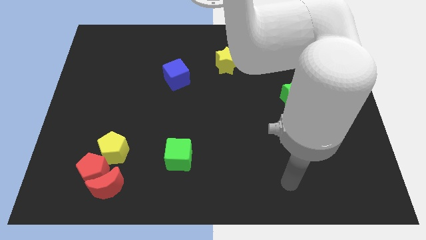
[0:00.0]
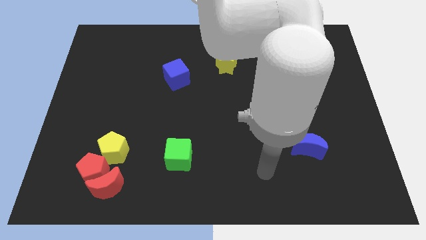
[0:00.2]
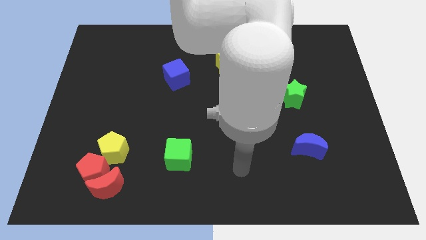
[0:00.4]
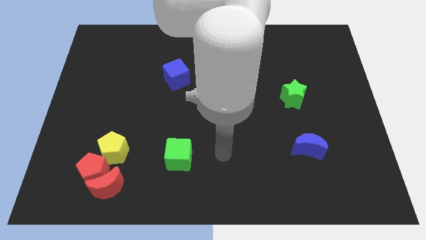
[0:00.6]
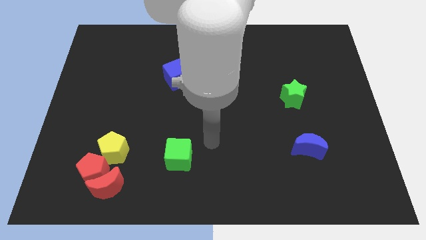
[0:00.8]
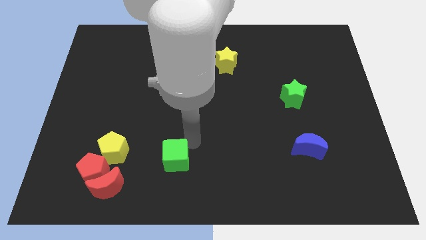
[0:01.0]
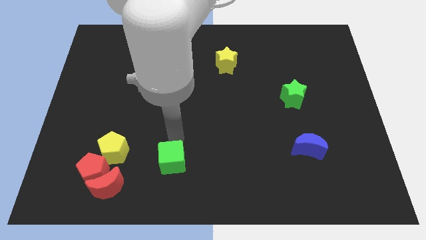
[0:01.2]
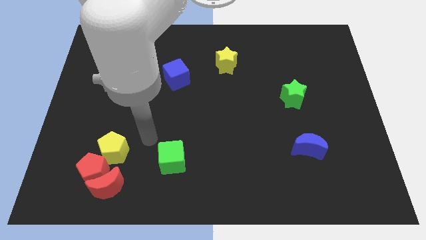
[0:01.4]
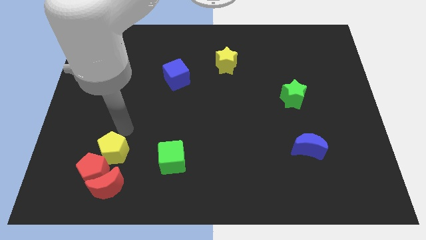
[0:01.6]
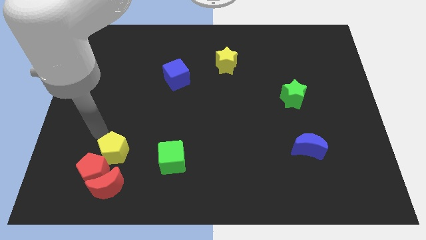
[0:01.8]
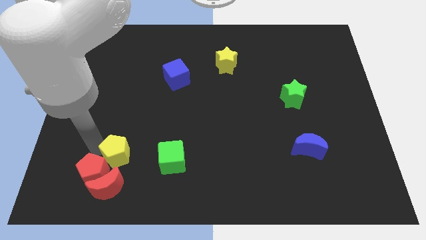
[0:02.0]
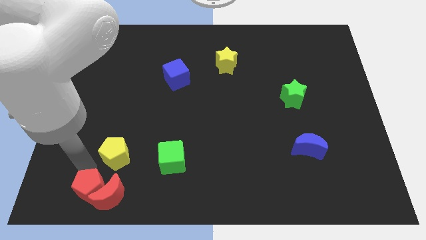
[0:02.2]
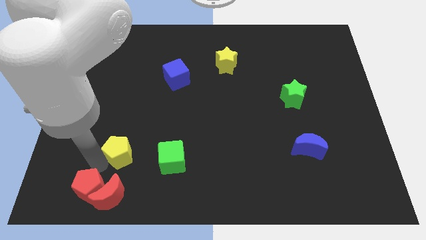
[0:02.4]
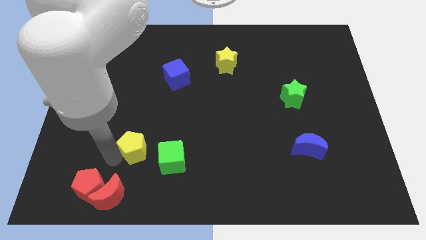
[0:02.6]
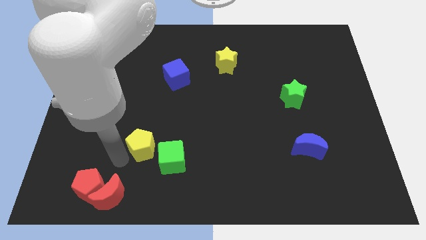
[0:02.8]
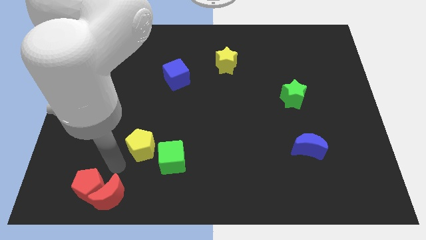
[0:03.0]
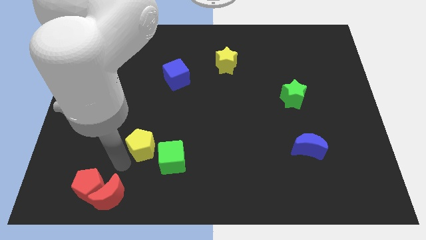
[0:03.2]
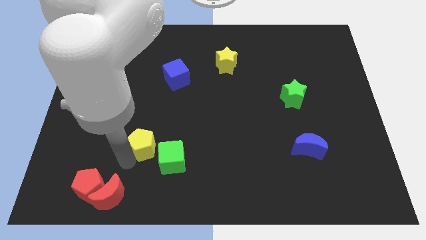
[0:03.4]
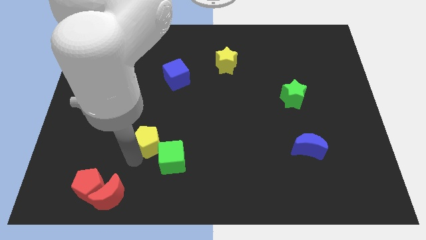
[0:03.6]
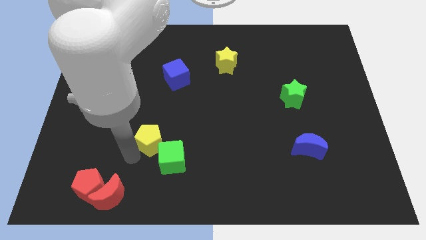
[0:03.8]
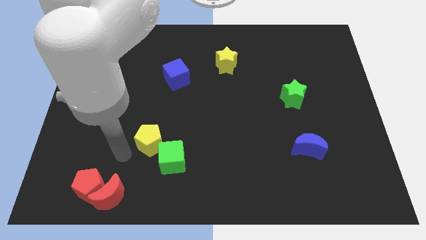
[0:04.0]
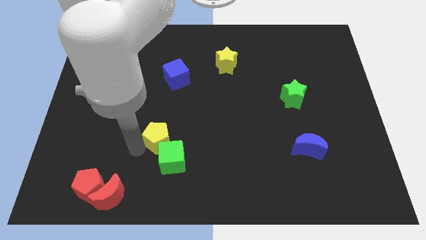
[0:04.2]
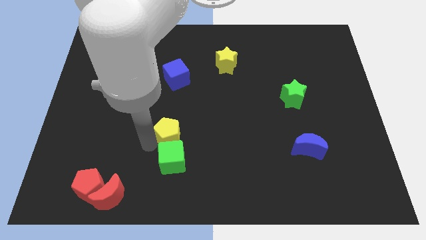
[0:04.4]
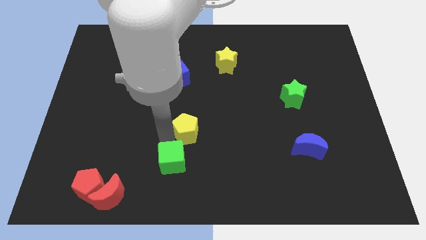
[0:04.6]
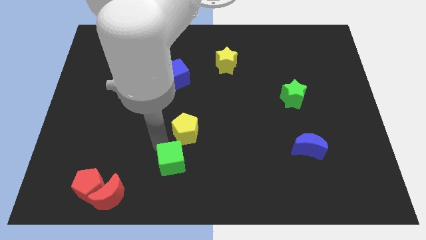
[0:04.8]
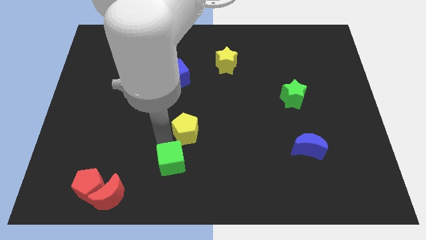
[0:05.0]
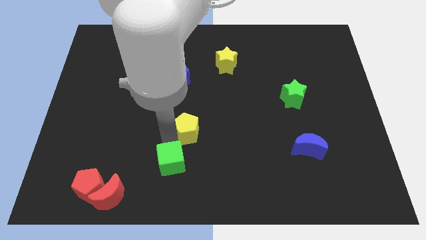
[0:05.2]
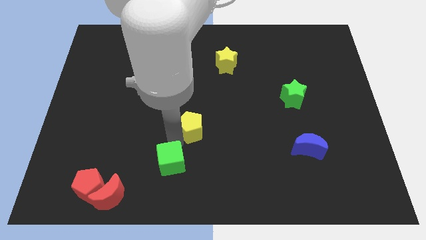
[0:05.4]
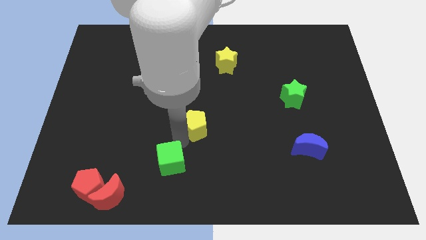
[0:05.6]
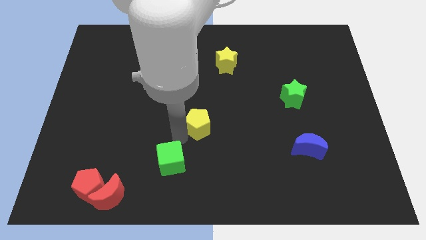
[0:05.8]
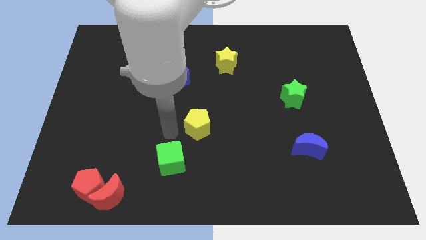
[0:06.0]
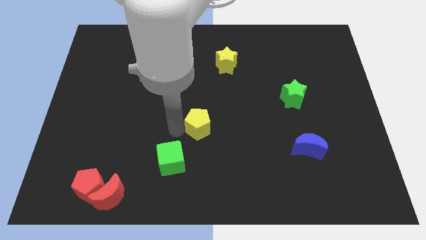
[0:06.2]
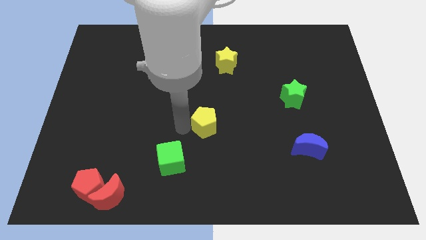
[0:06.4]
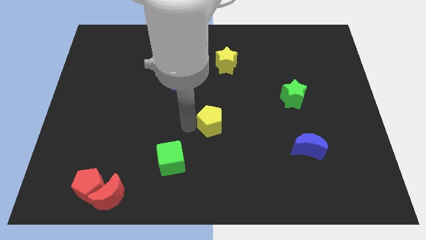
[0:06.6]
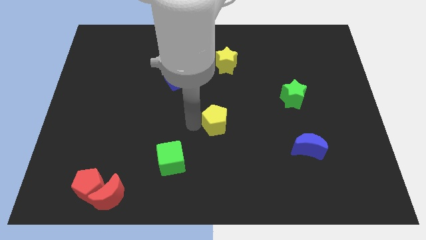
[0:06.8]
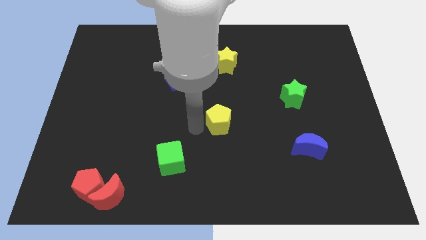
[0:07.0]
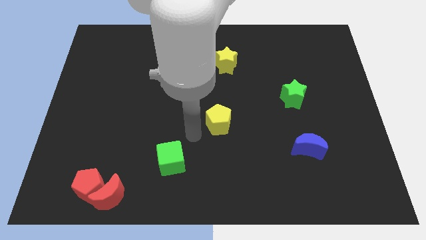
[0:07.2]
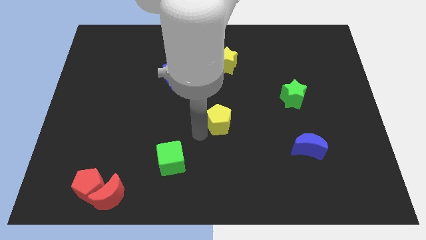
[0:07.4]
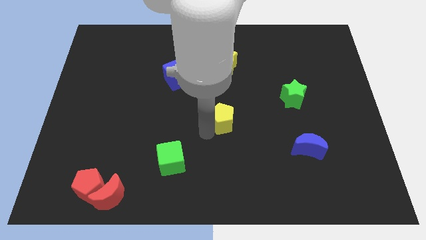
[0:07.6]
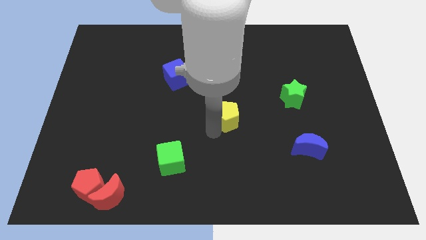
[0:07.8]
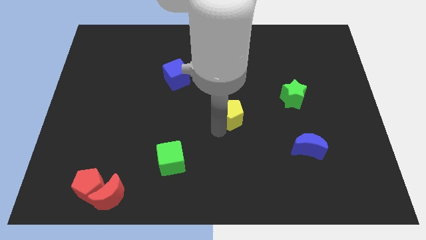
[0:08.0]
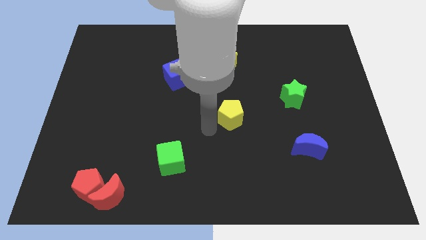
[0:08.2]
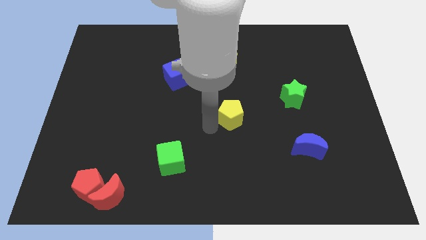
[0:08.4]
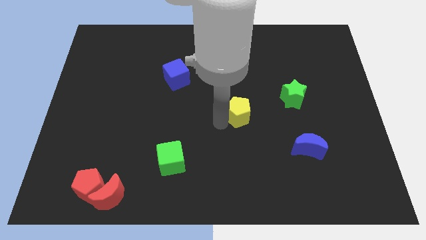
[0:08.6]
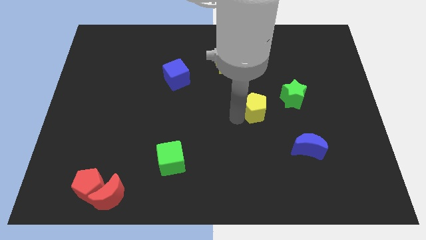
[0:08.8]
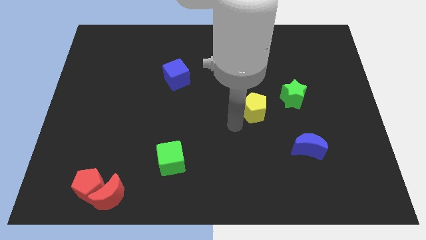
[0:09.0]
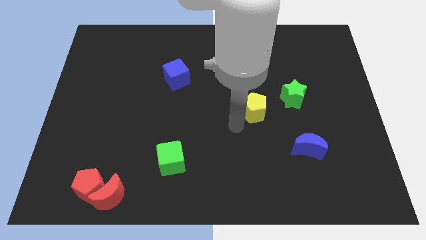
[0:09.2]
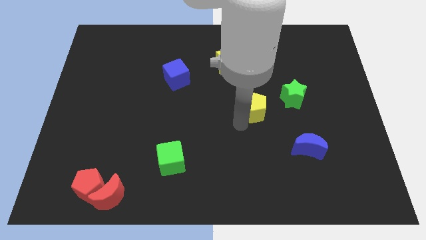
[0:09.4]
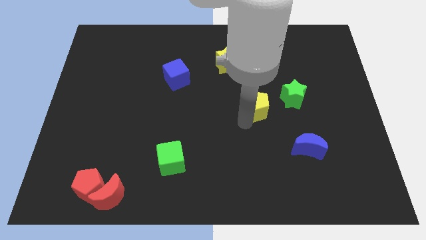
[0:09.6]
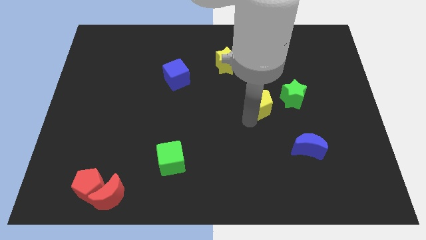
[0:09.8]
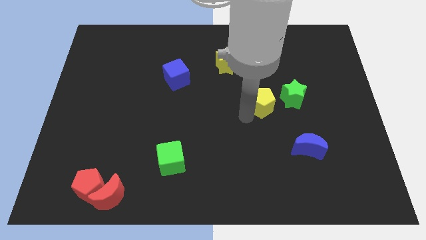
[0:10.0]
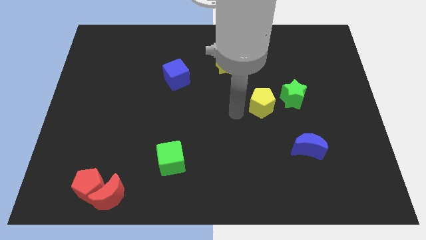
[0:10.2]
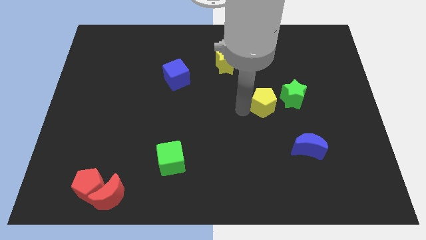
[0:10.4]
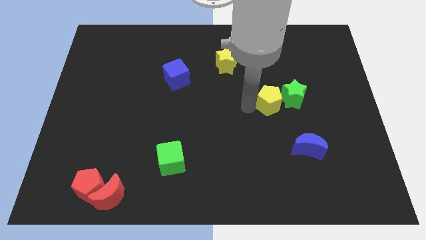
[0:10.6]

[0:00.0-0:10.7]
slide the yellow pentagon close to the green star

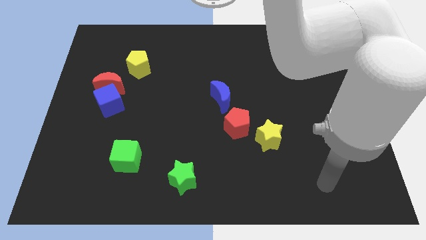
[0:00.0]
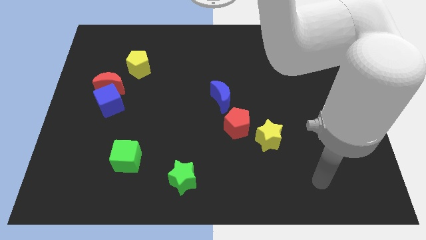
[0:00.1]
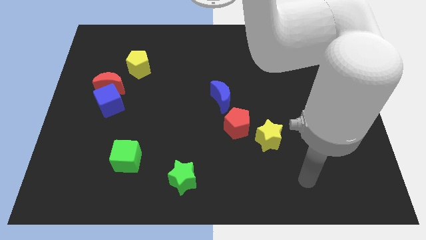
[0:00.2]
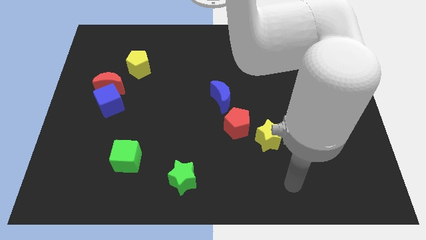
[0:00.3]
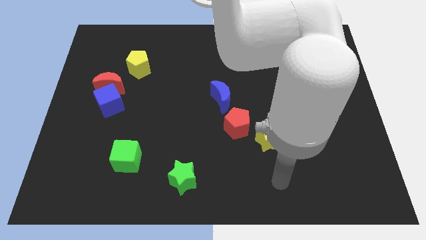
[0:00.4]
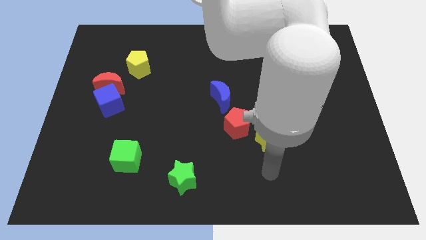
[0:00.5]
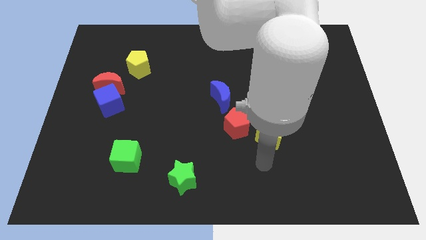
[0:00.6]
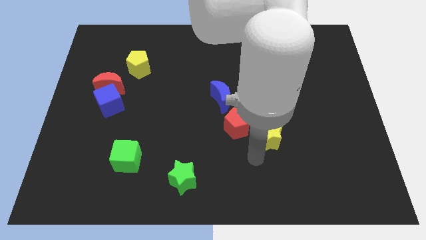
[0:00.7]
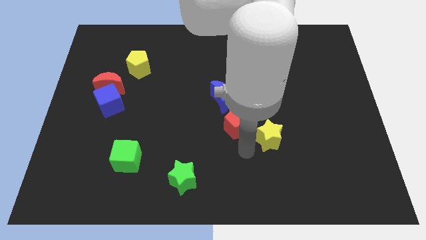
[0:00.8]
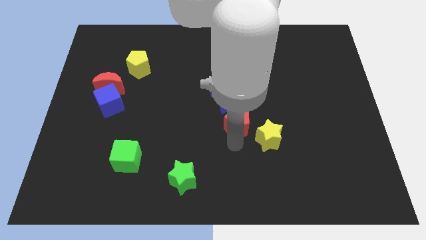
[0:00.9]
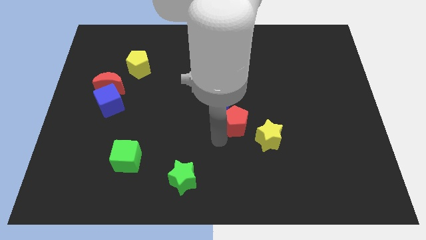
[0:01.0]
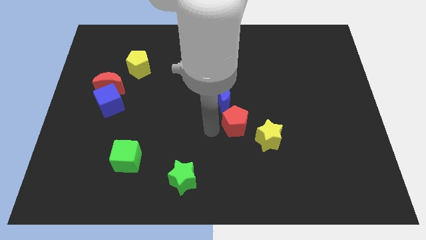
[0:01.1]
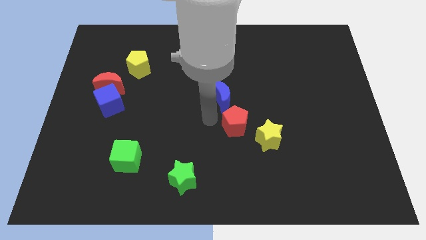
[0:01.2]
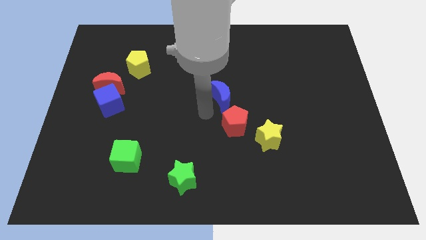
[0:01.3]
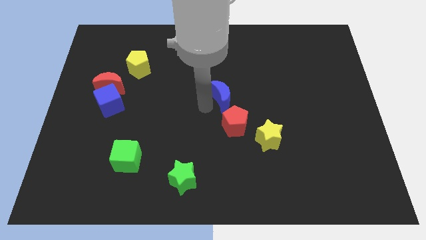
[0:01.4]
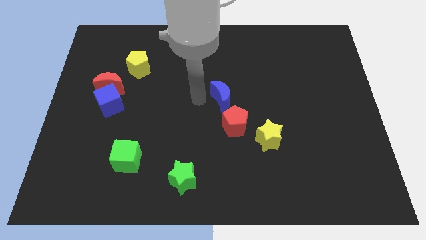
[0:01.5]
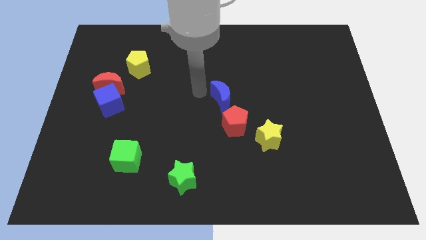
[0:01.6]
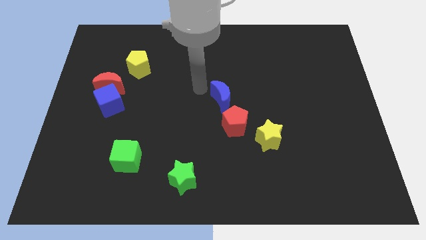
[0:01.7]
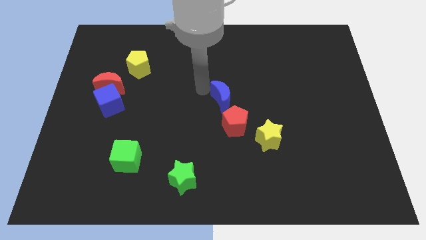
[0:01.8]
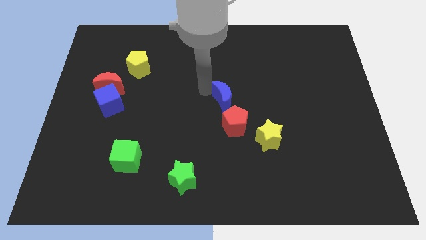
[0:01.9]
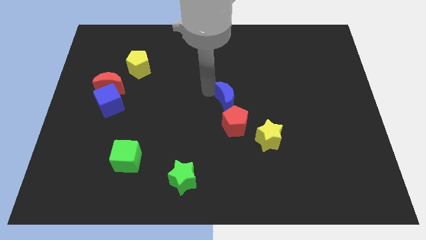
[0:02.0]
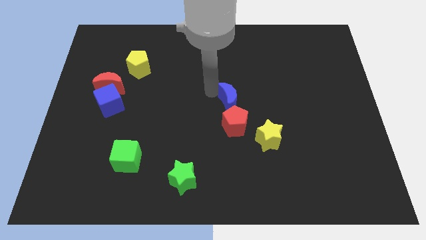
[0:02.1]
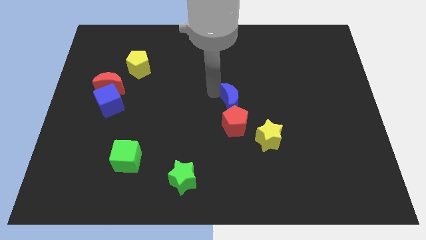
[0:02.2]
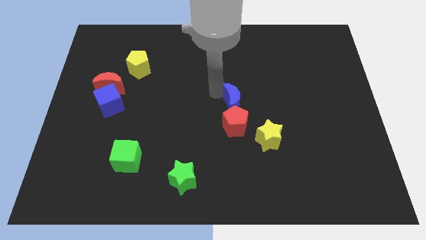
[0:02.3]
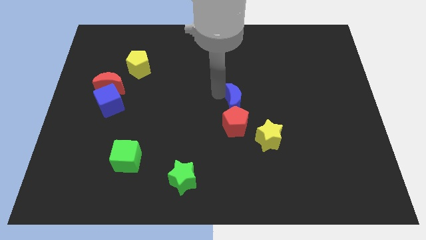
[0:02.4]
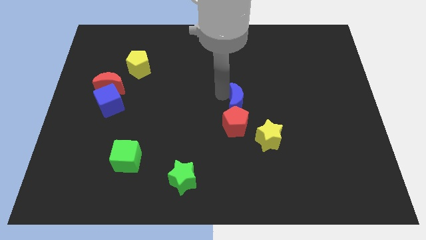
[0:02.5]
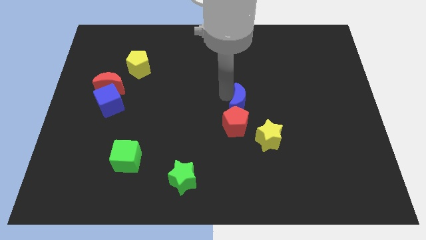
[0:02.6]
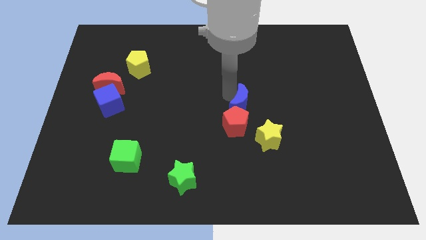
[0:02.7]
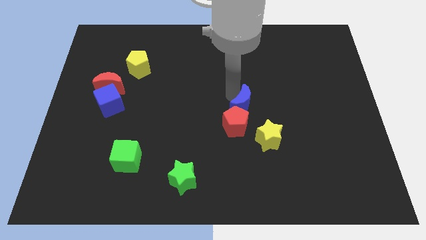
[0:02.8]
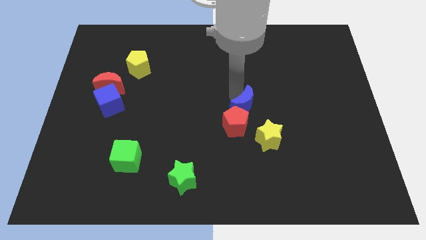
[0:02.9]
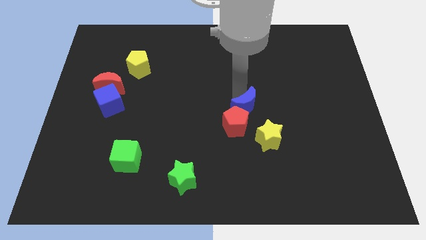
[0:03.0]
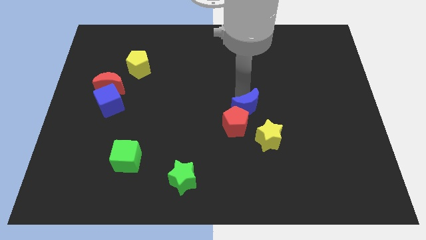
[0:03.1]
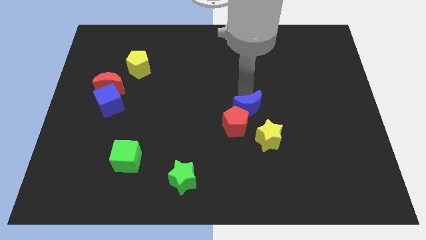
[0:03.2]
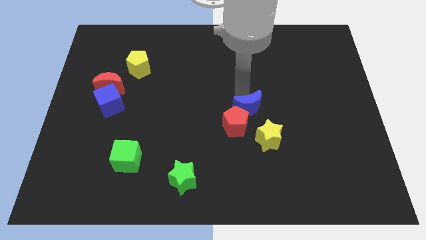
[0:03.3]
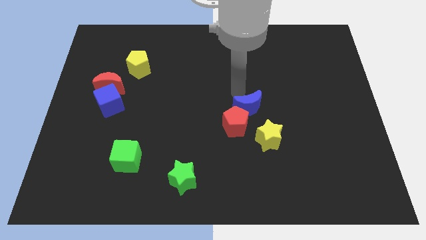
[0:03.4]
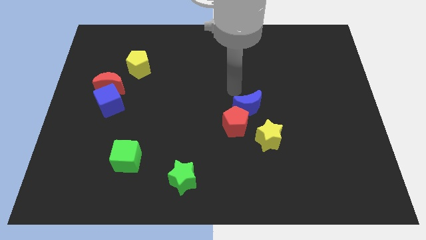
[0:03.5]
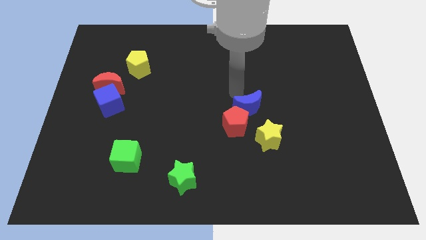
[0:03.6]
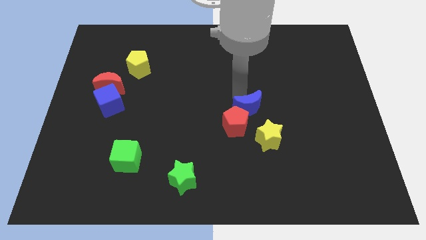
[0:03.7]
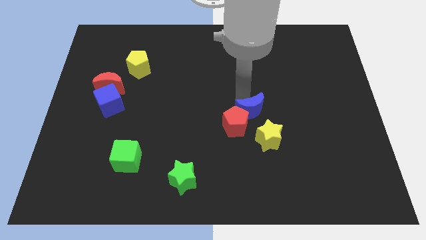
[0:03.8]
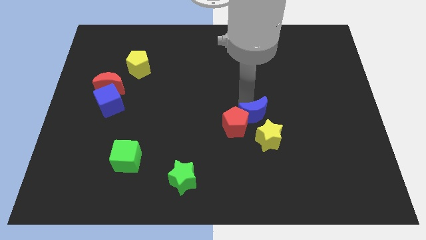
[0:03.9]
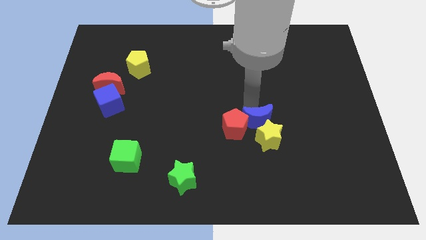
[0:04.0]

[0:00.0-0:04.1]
push the blue moon next to the yellow star
